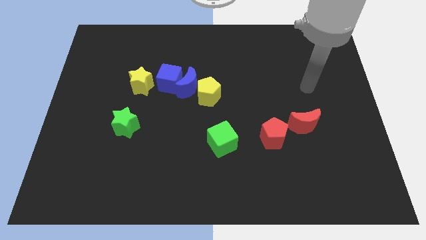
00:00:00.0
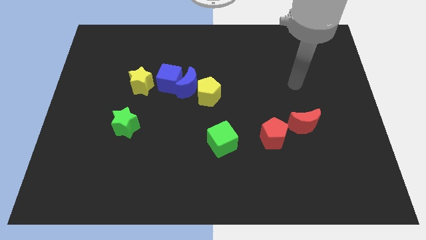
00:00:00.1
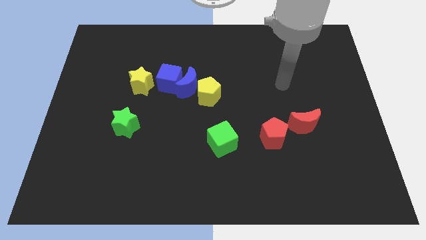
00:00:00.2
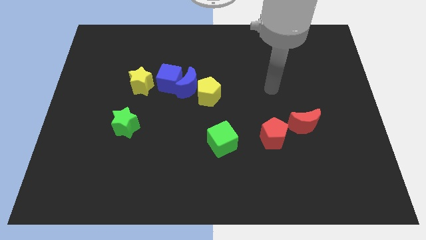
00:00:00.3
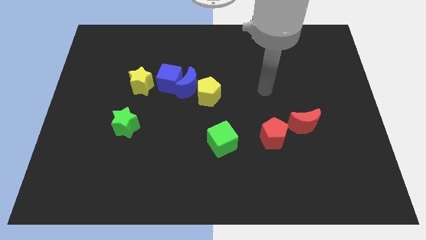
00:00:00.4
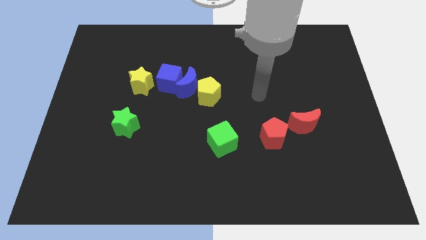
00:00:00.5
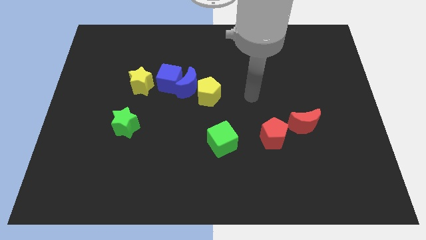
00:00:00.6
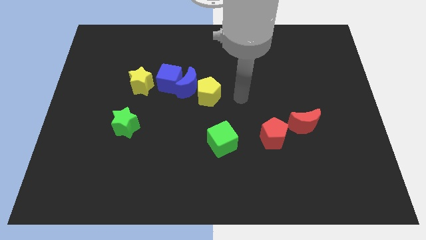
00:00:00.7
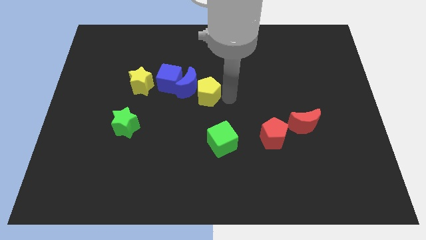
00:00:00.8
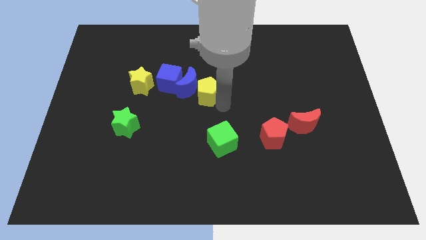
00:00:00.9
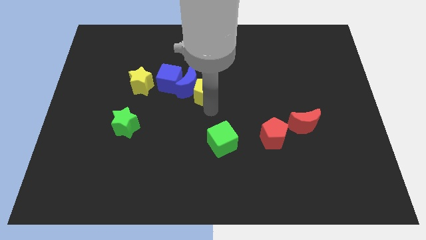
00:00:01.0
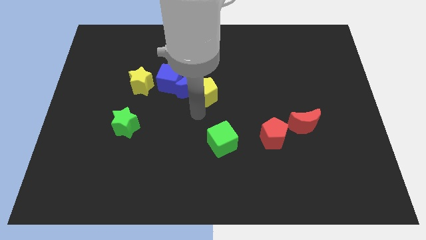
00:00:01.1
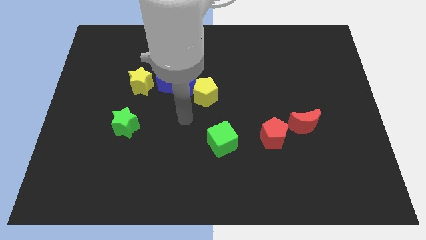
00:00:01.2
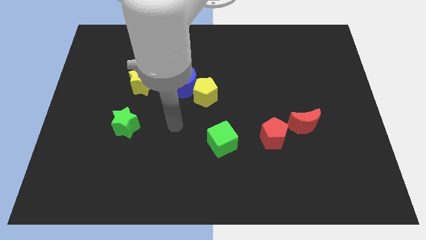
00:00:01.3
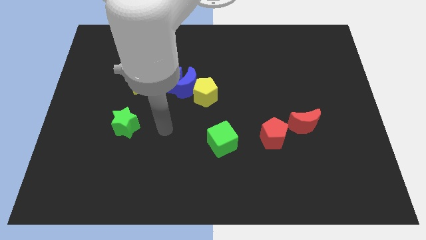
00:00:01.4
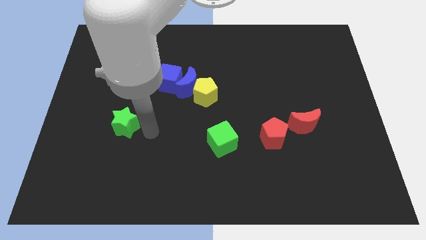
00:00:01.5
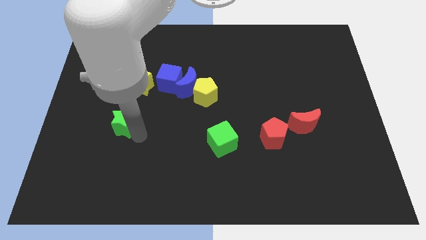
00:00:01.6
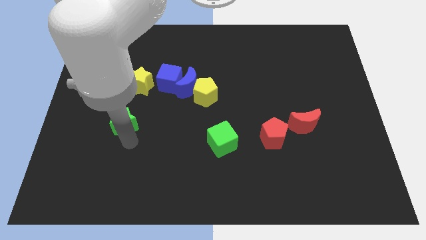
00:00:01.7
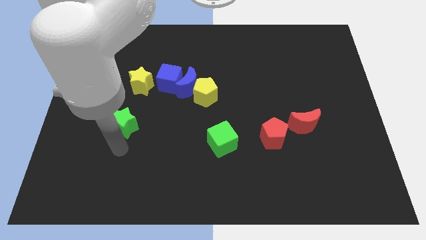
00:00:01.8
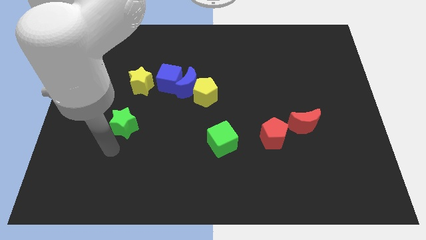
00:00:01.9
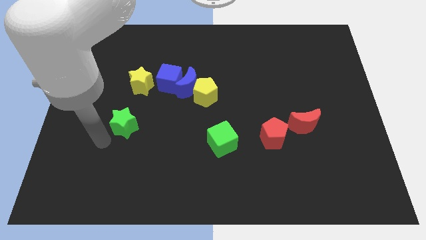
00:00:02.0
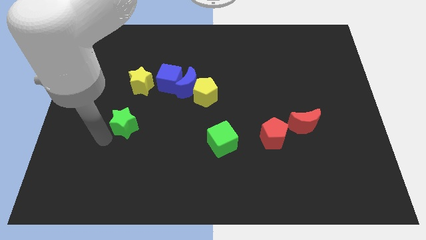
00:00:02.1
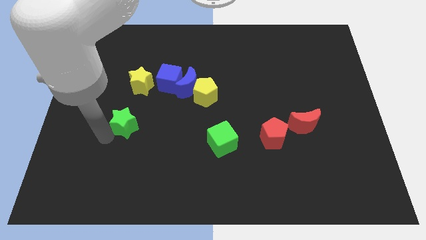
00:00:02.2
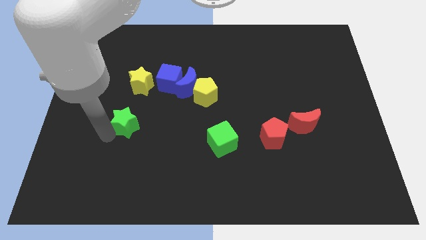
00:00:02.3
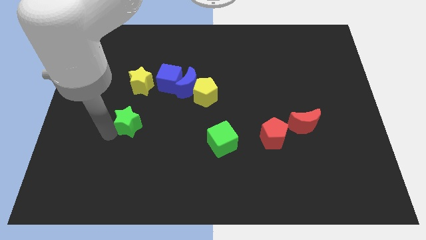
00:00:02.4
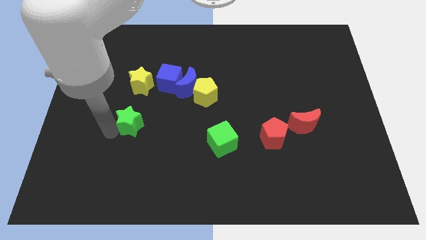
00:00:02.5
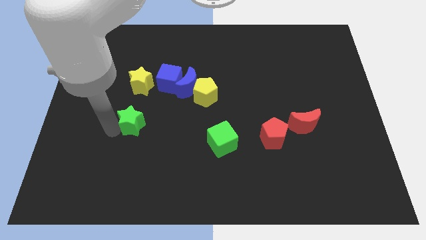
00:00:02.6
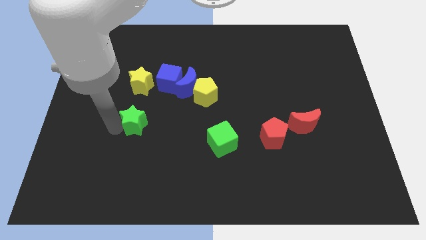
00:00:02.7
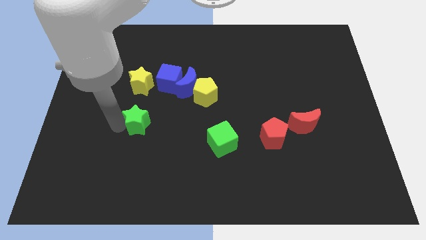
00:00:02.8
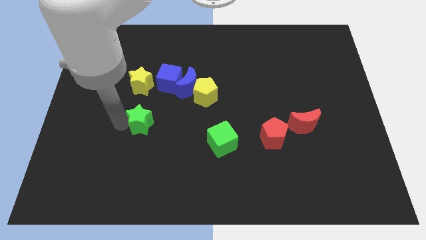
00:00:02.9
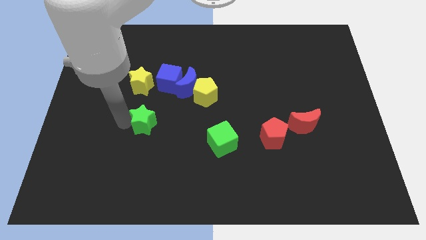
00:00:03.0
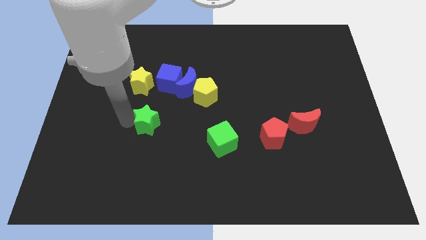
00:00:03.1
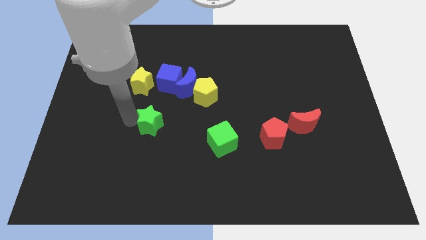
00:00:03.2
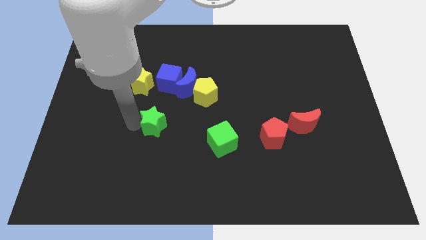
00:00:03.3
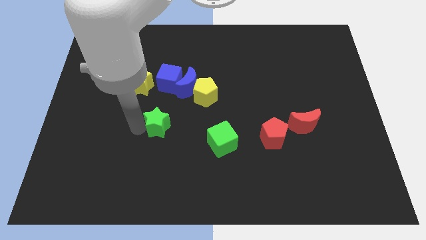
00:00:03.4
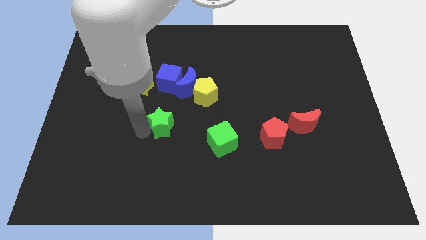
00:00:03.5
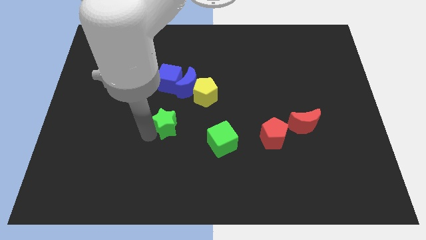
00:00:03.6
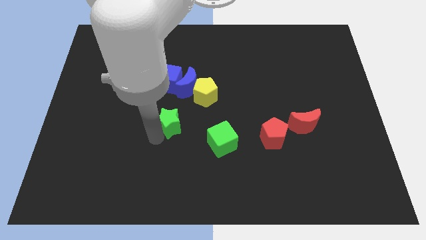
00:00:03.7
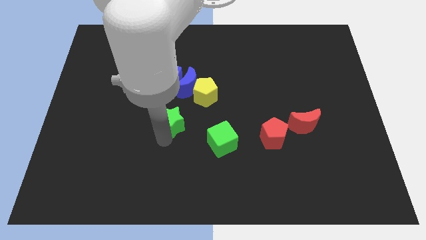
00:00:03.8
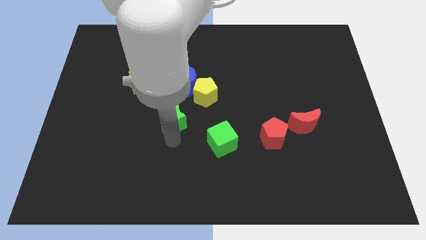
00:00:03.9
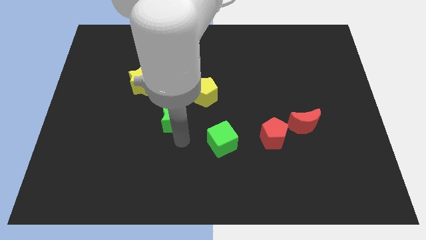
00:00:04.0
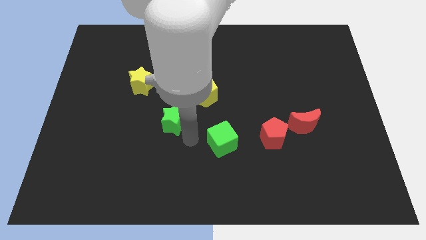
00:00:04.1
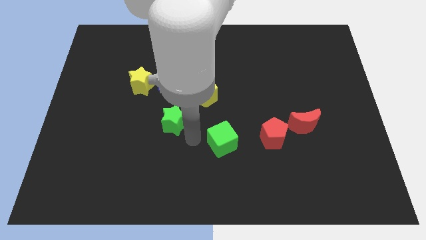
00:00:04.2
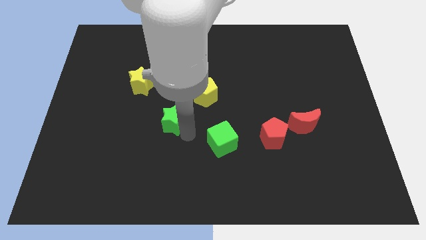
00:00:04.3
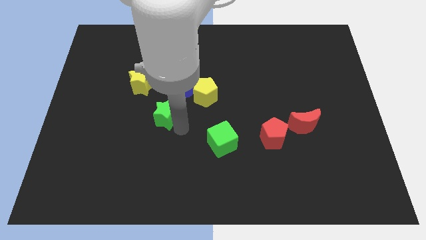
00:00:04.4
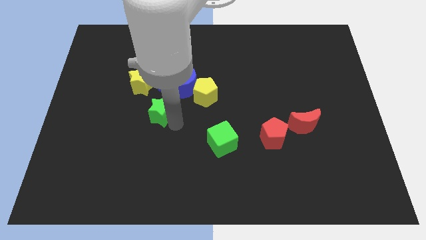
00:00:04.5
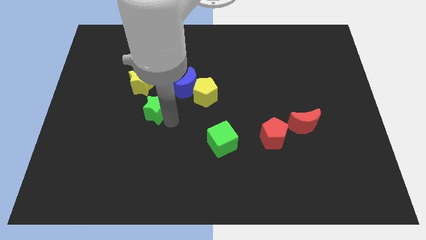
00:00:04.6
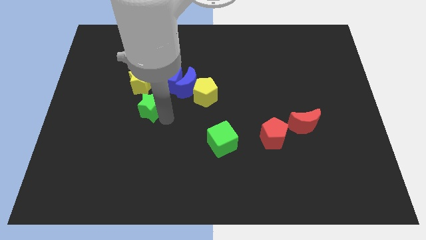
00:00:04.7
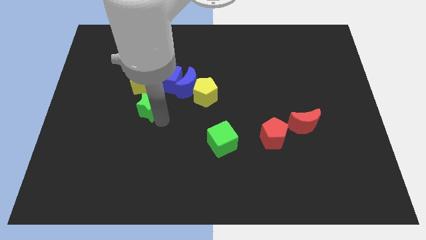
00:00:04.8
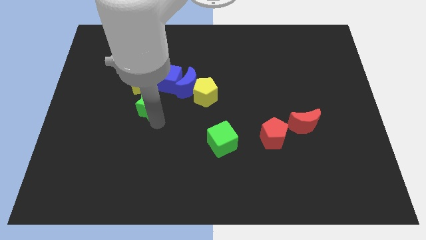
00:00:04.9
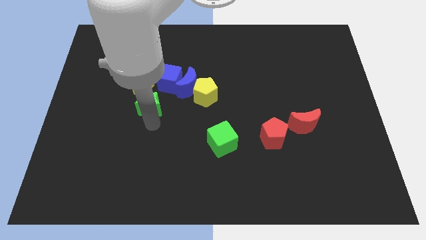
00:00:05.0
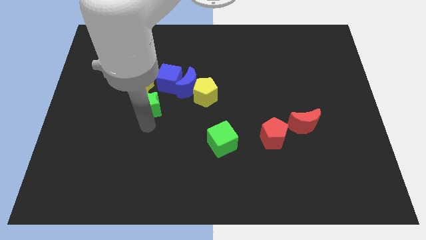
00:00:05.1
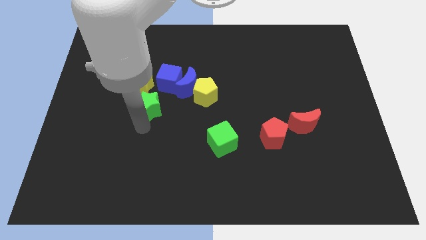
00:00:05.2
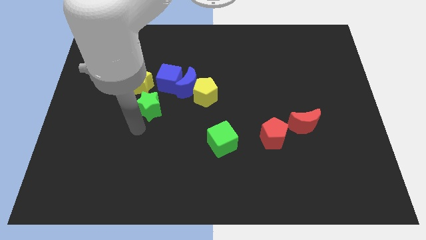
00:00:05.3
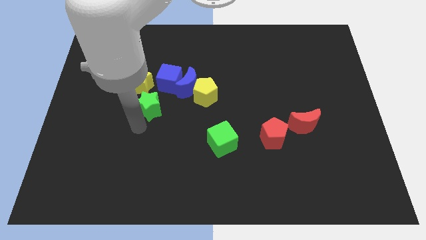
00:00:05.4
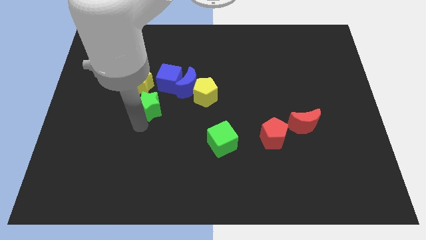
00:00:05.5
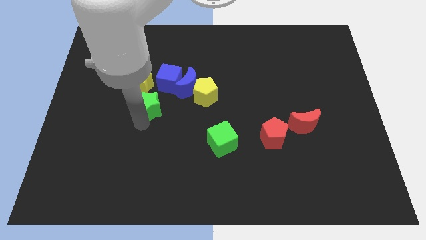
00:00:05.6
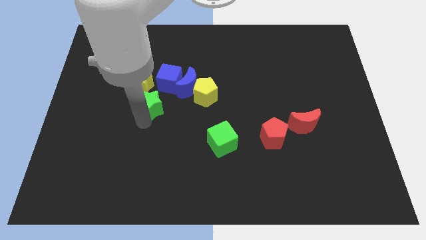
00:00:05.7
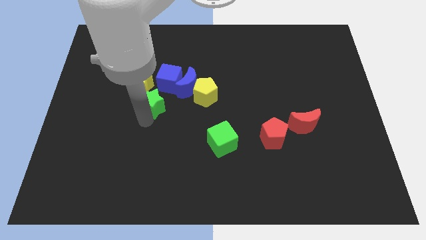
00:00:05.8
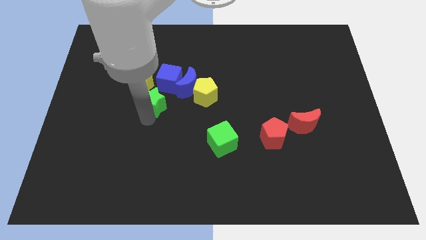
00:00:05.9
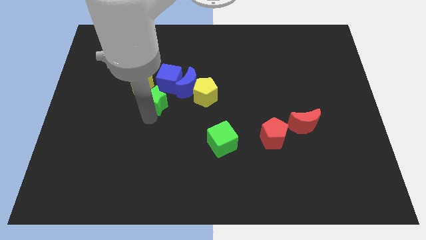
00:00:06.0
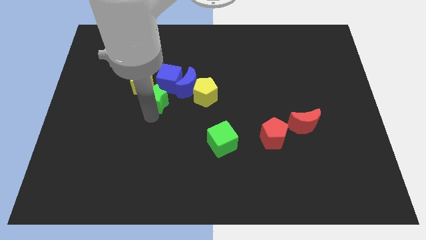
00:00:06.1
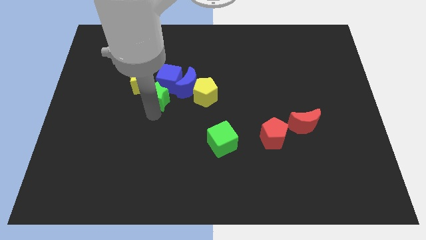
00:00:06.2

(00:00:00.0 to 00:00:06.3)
slide the green star towards the blue cube

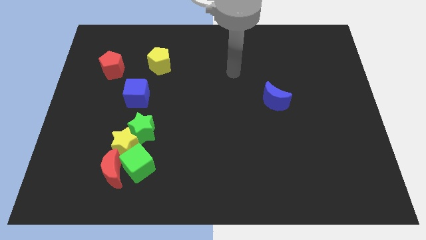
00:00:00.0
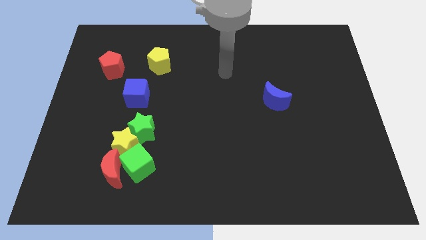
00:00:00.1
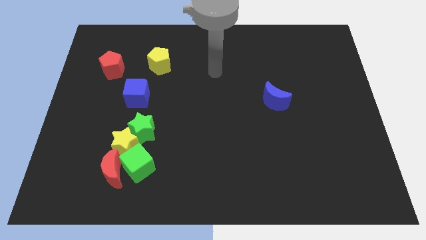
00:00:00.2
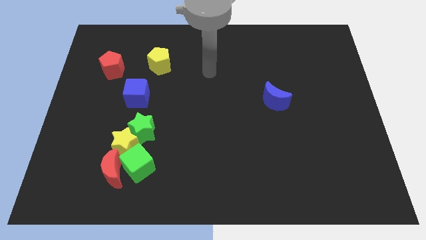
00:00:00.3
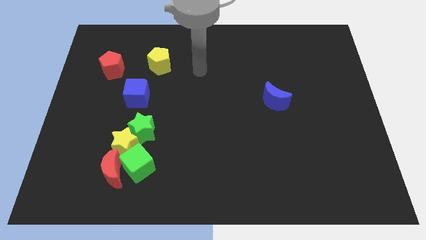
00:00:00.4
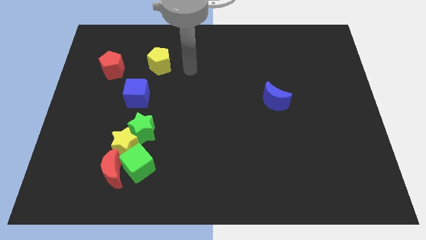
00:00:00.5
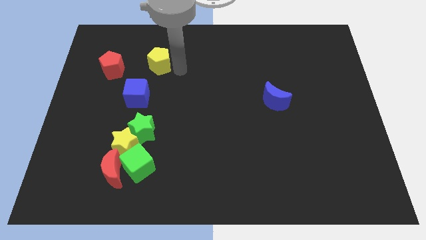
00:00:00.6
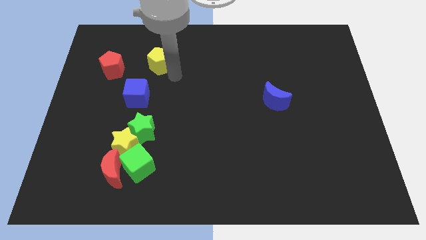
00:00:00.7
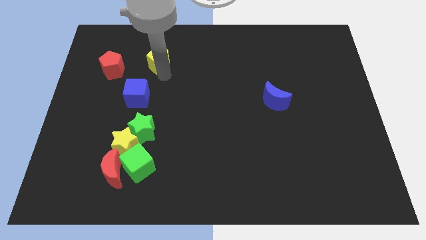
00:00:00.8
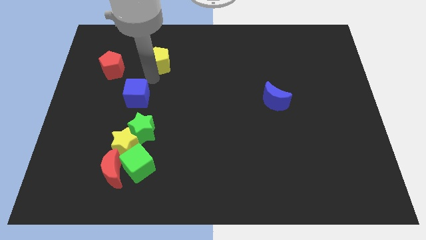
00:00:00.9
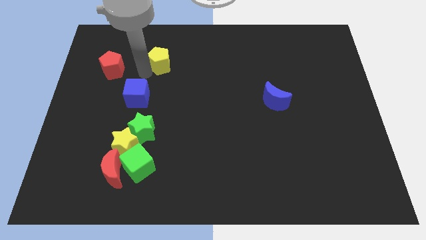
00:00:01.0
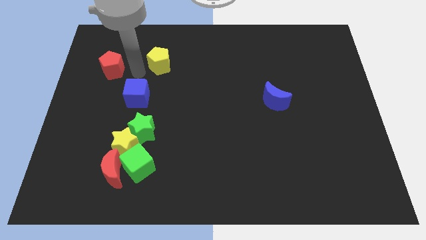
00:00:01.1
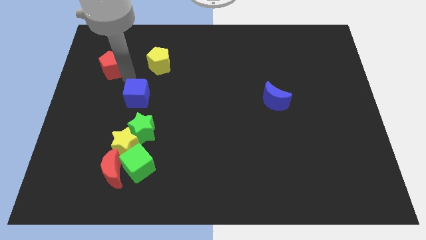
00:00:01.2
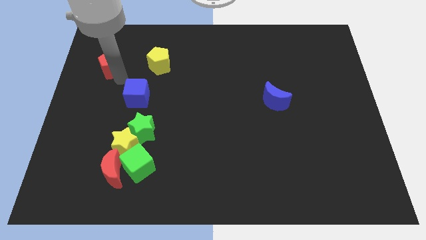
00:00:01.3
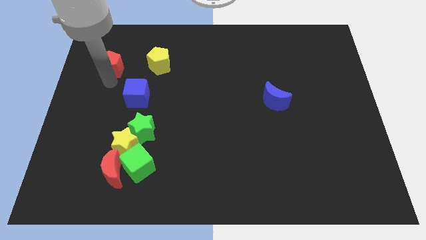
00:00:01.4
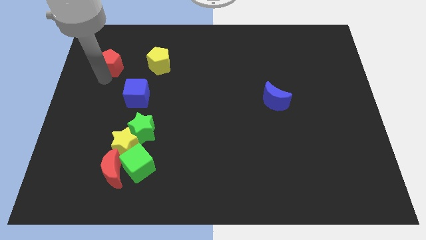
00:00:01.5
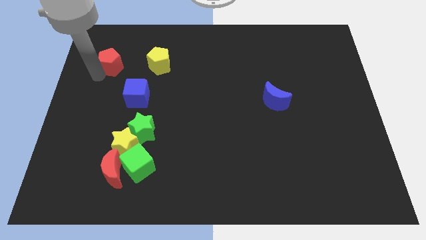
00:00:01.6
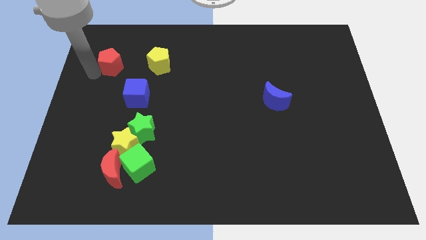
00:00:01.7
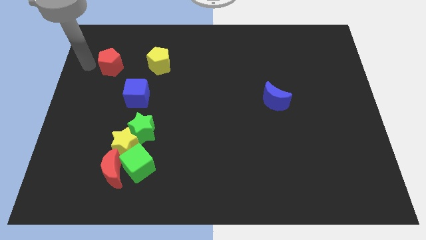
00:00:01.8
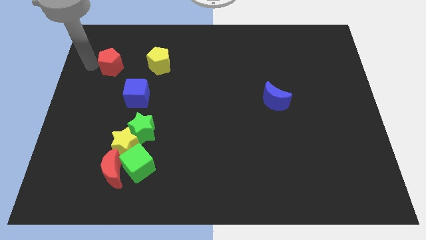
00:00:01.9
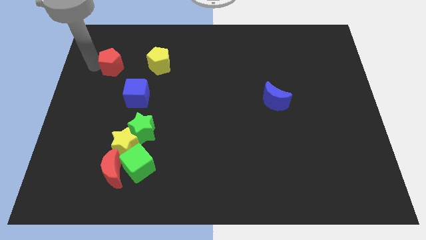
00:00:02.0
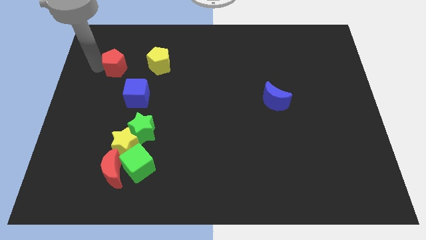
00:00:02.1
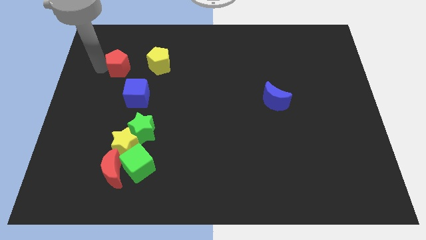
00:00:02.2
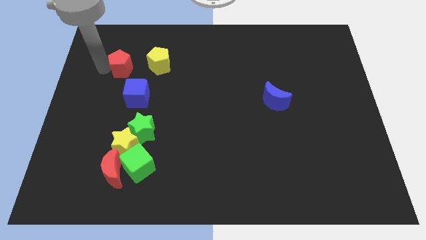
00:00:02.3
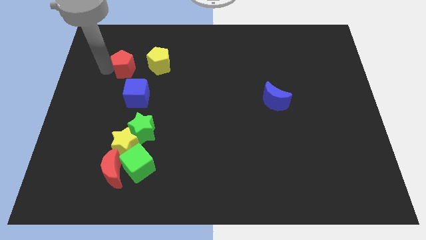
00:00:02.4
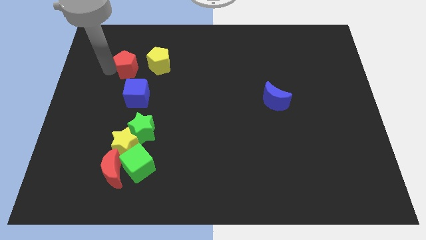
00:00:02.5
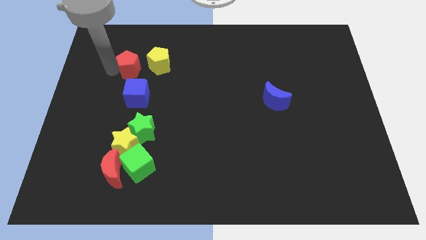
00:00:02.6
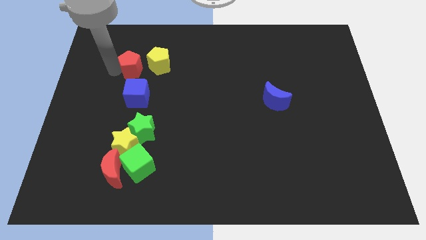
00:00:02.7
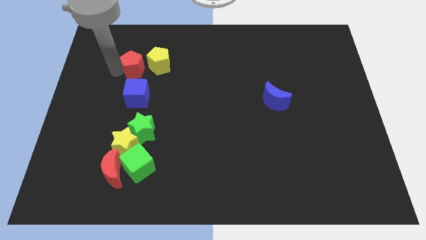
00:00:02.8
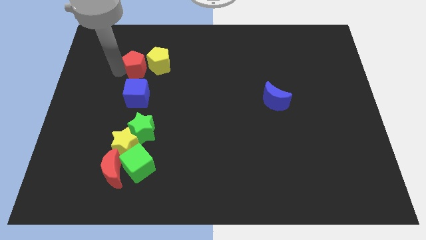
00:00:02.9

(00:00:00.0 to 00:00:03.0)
move the red pentagon towards the yellow pentagon
